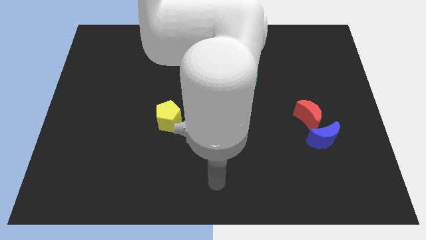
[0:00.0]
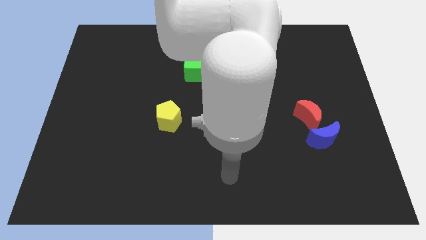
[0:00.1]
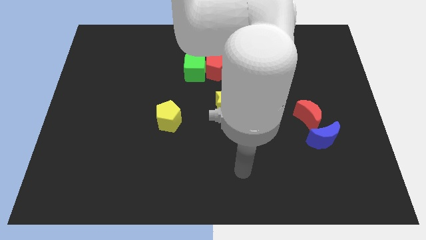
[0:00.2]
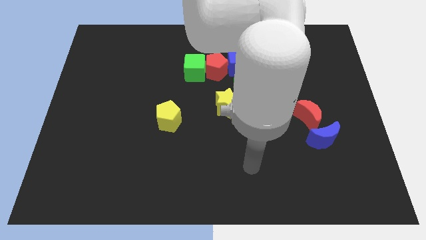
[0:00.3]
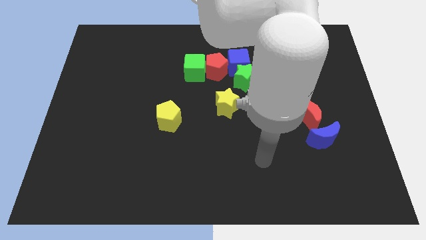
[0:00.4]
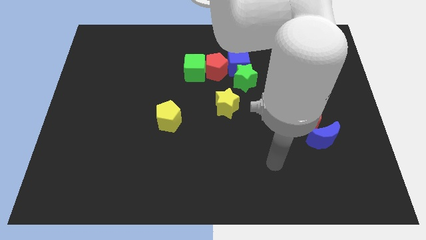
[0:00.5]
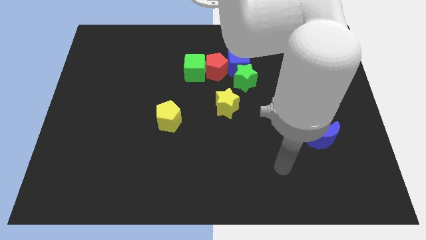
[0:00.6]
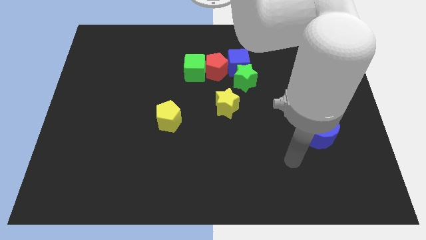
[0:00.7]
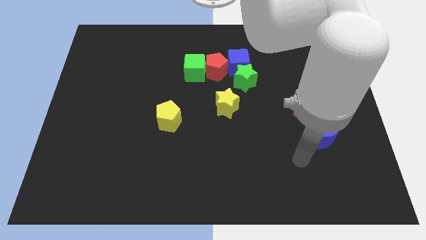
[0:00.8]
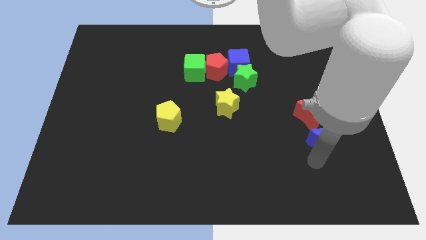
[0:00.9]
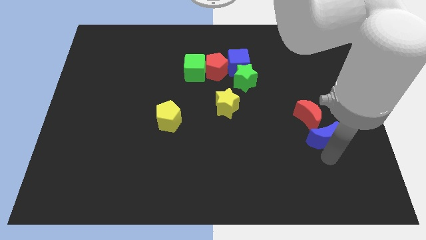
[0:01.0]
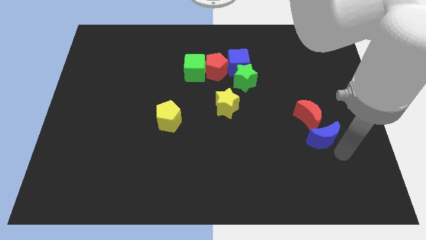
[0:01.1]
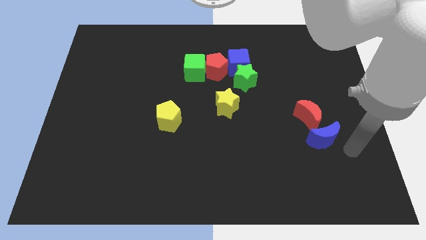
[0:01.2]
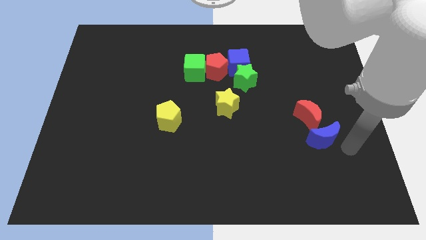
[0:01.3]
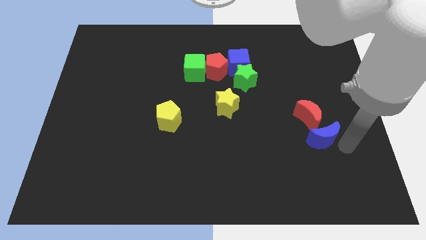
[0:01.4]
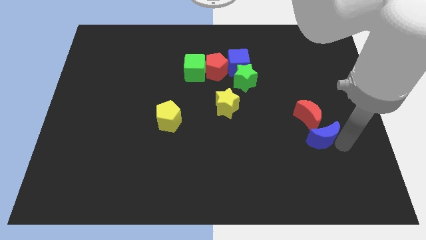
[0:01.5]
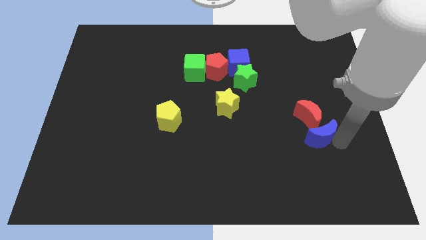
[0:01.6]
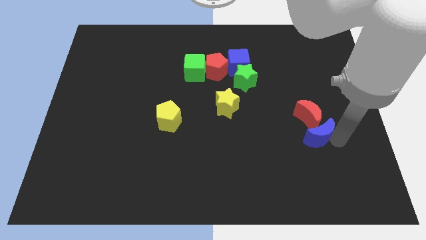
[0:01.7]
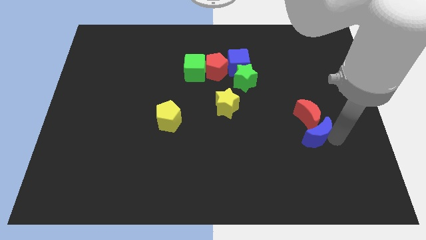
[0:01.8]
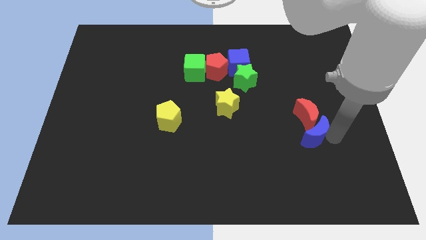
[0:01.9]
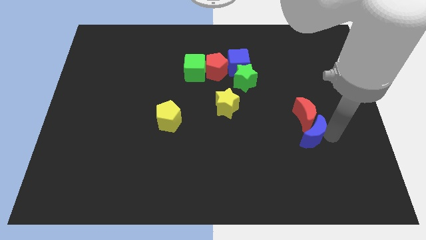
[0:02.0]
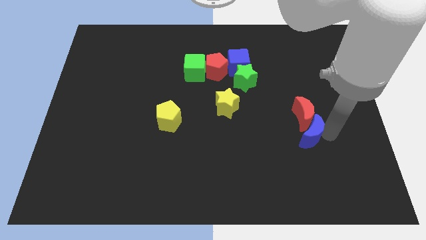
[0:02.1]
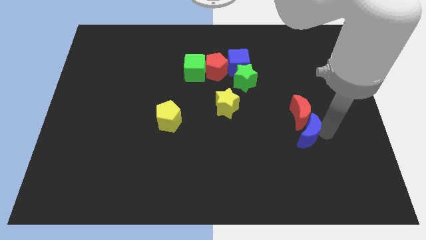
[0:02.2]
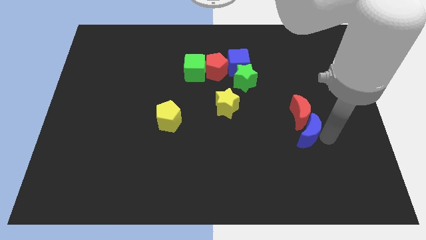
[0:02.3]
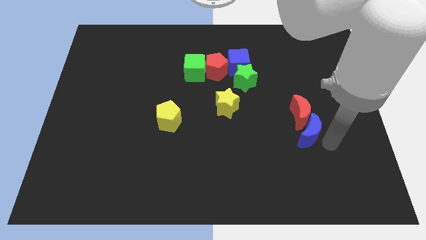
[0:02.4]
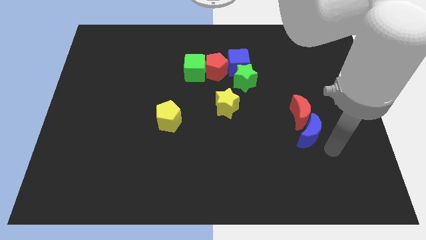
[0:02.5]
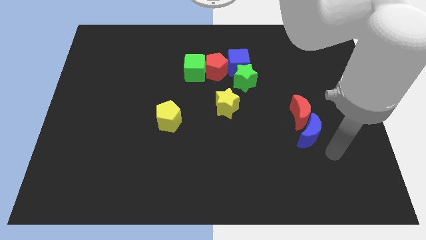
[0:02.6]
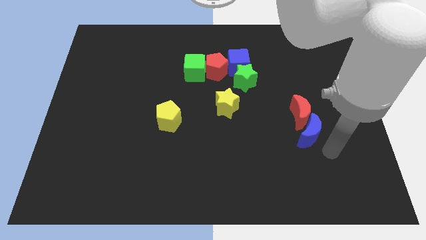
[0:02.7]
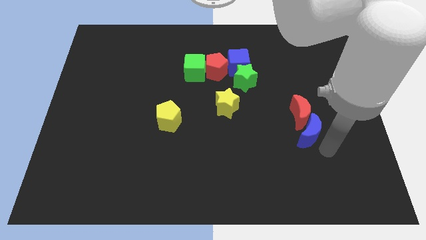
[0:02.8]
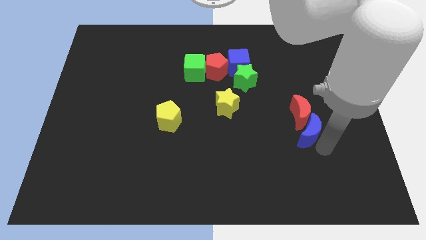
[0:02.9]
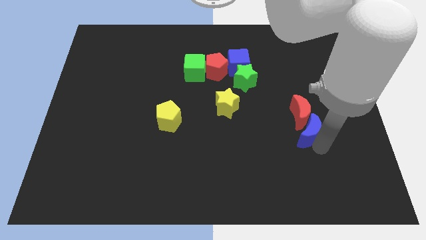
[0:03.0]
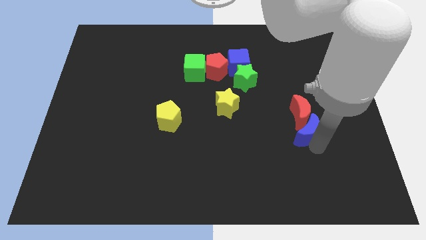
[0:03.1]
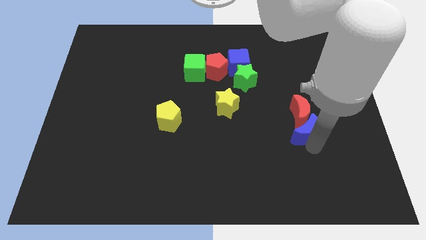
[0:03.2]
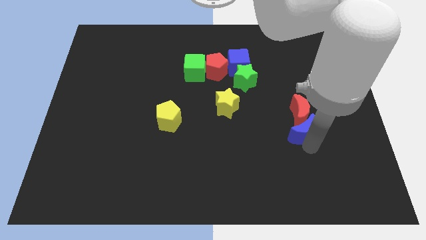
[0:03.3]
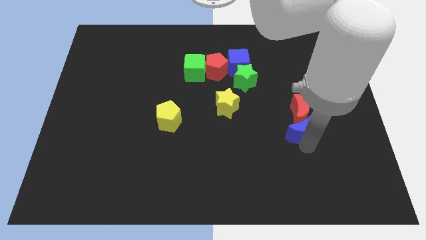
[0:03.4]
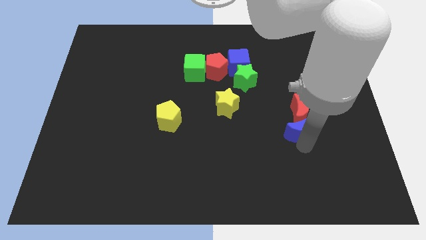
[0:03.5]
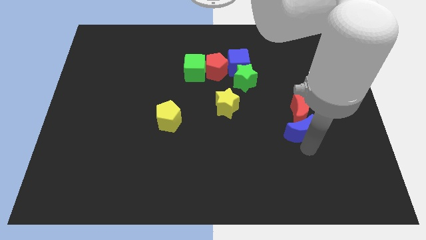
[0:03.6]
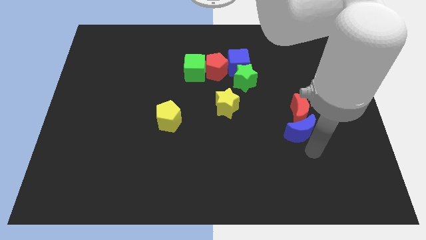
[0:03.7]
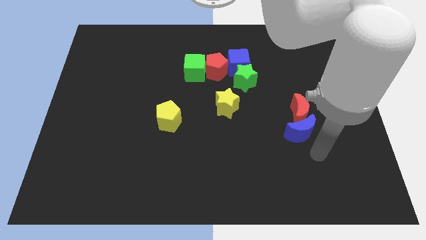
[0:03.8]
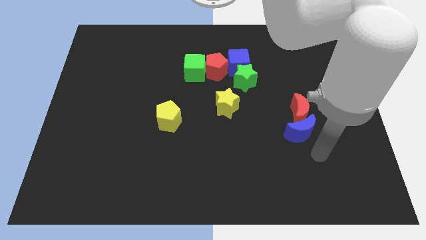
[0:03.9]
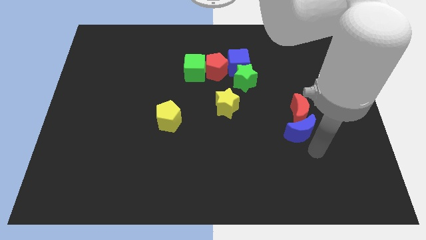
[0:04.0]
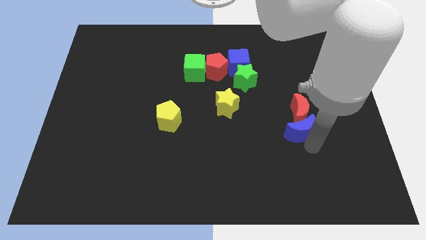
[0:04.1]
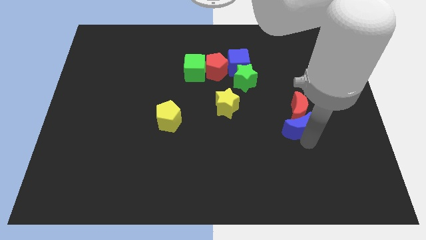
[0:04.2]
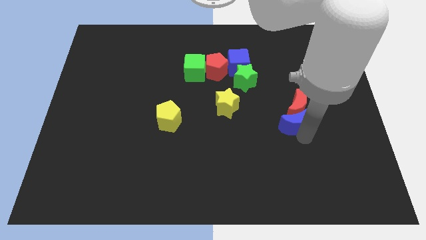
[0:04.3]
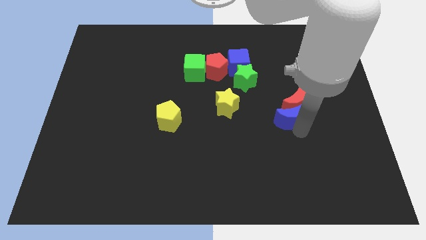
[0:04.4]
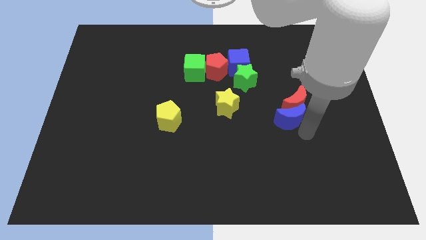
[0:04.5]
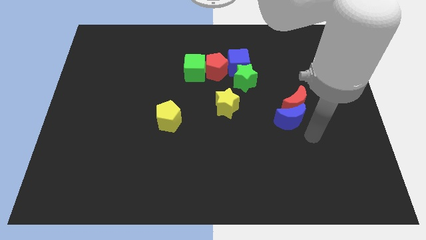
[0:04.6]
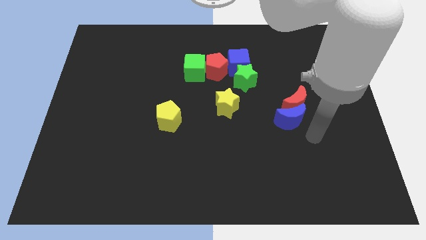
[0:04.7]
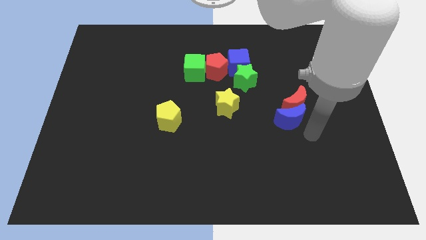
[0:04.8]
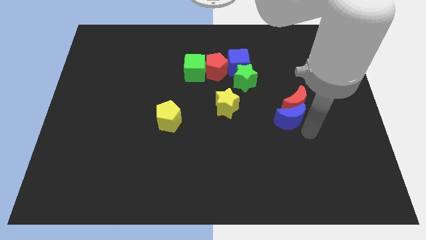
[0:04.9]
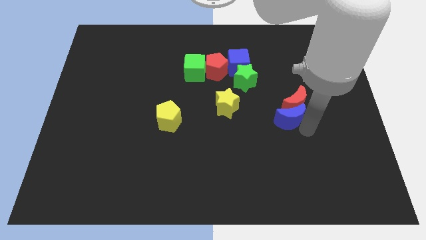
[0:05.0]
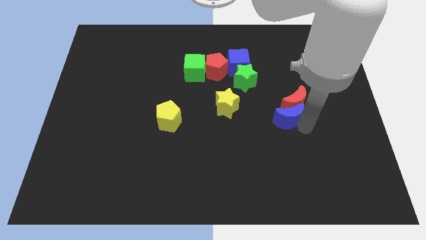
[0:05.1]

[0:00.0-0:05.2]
move the blue moon right of the yellow star

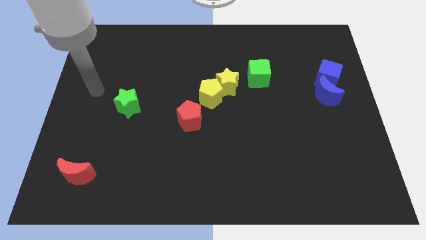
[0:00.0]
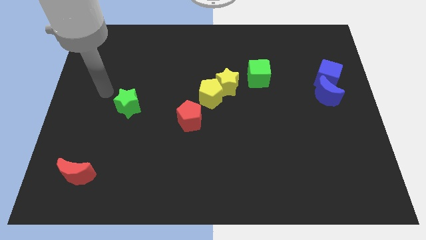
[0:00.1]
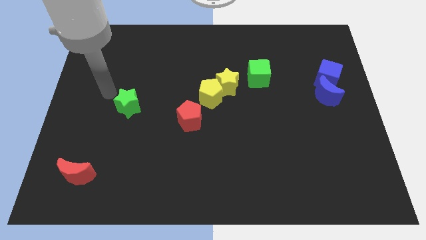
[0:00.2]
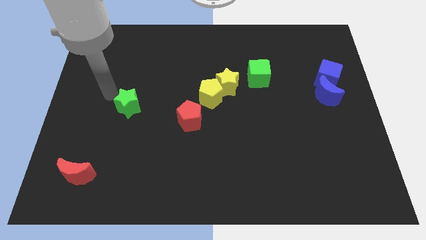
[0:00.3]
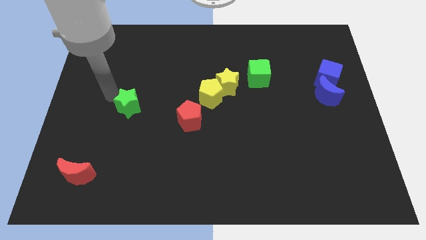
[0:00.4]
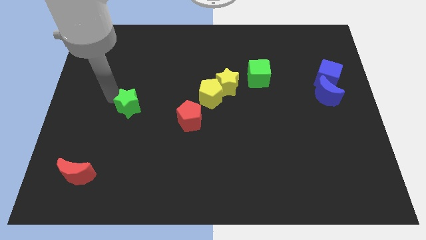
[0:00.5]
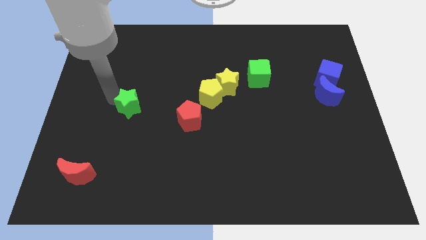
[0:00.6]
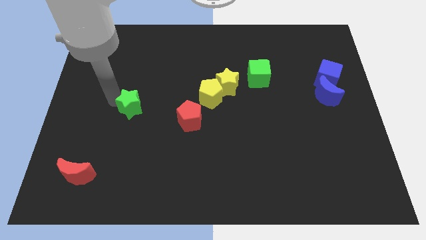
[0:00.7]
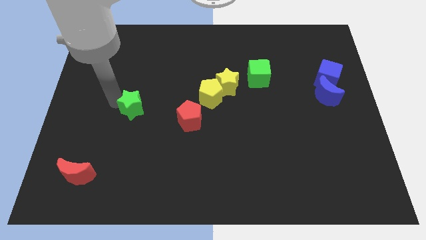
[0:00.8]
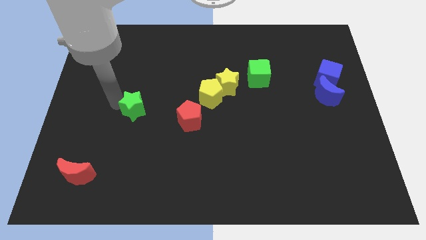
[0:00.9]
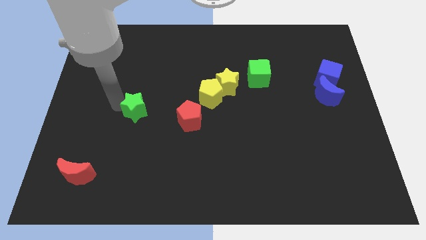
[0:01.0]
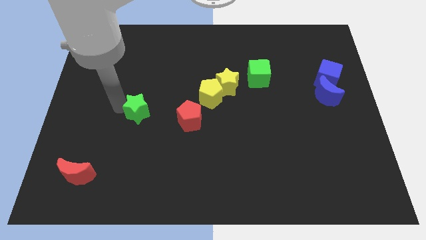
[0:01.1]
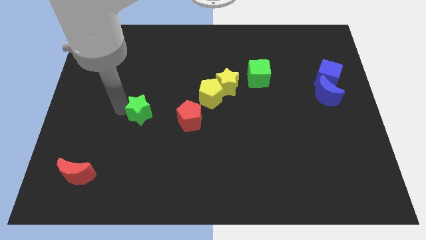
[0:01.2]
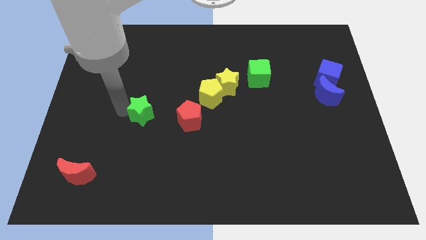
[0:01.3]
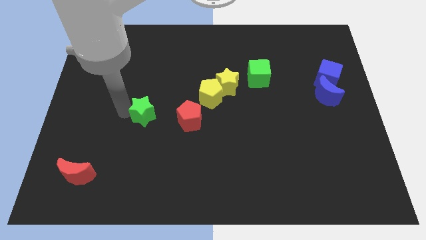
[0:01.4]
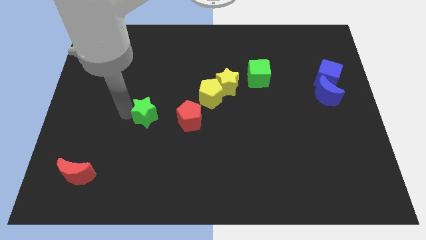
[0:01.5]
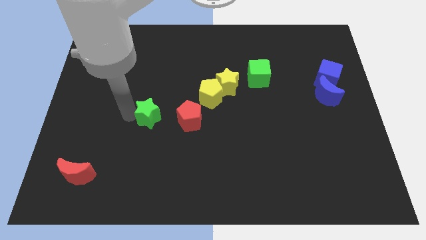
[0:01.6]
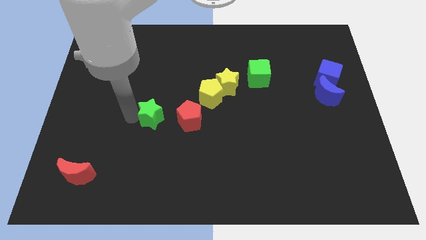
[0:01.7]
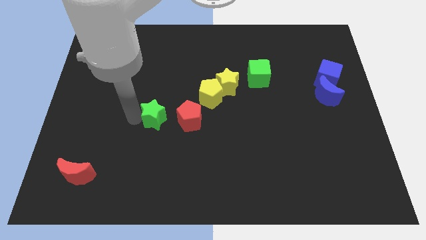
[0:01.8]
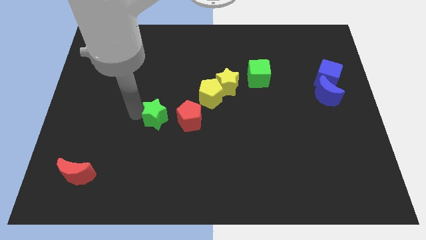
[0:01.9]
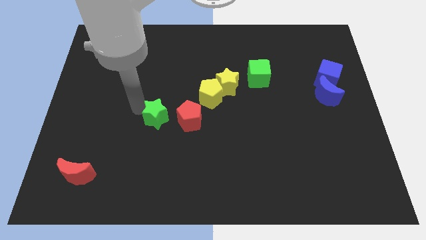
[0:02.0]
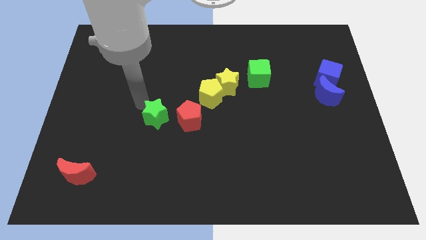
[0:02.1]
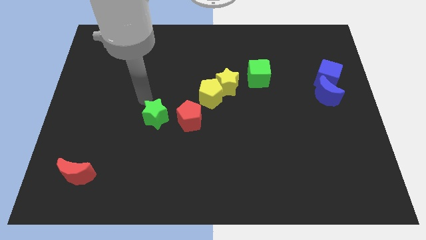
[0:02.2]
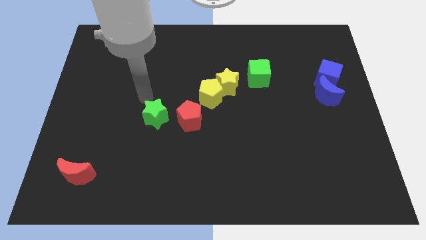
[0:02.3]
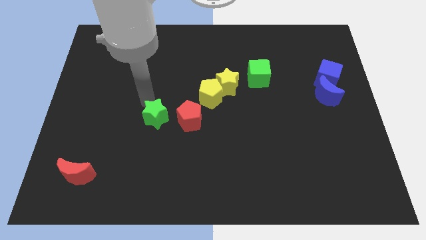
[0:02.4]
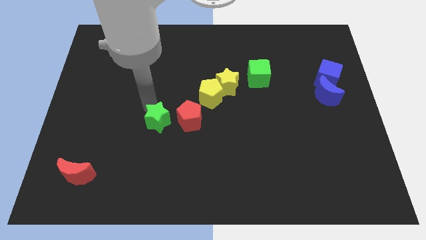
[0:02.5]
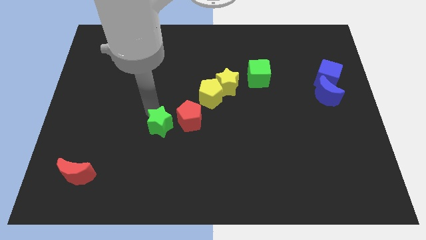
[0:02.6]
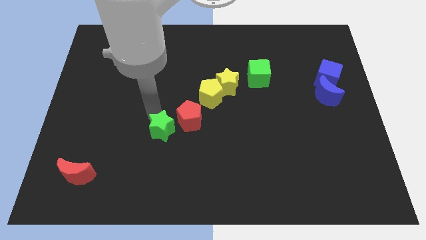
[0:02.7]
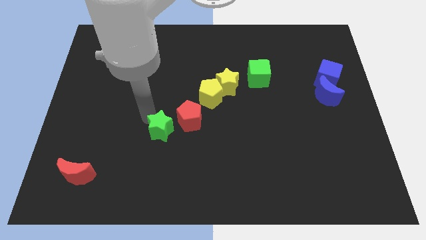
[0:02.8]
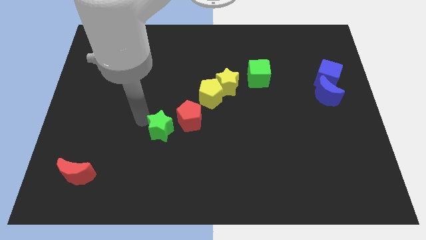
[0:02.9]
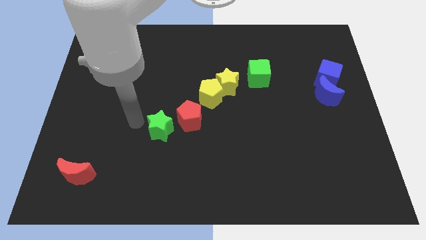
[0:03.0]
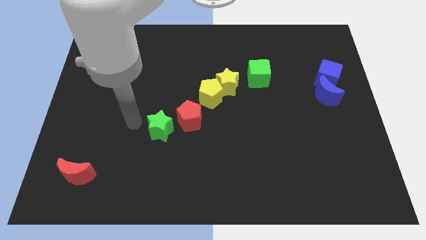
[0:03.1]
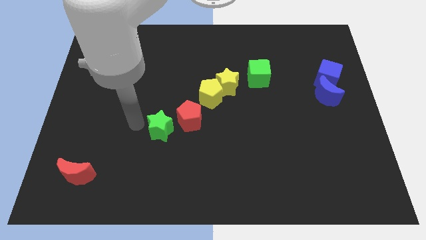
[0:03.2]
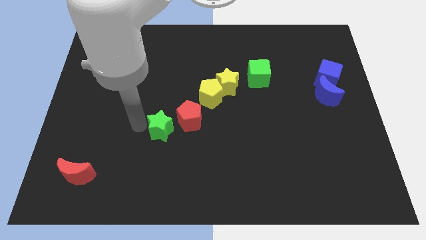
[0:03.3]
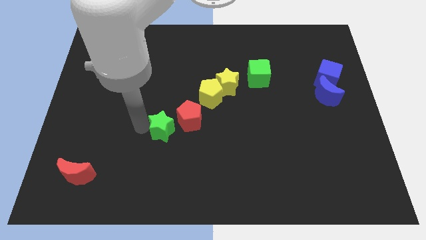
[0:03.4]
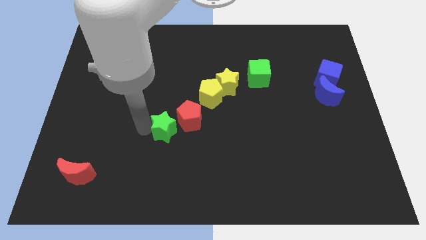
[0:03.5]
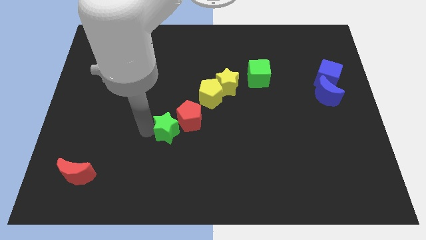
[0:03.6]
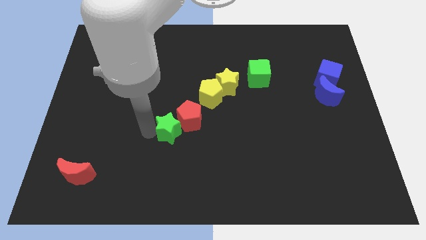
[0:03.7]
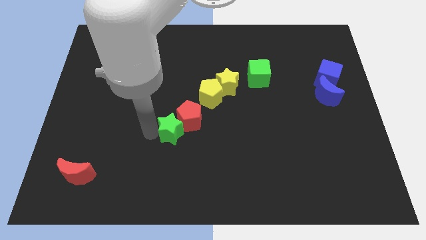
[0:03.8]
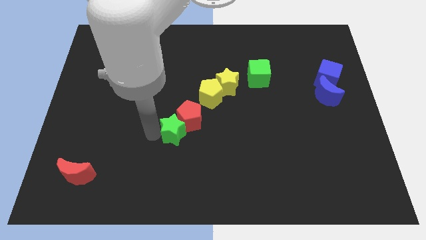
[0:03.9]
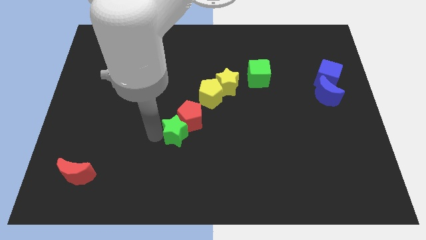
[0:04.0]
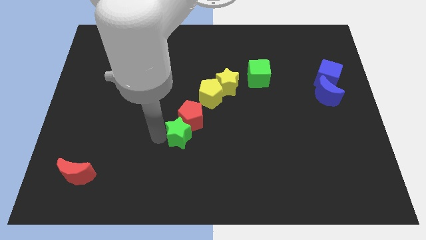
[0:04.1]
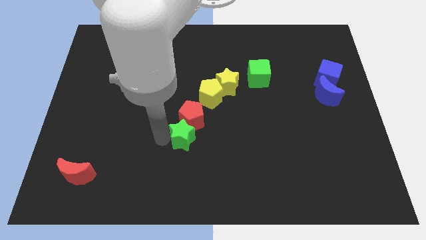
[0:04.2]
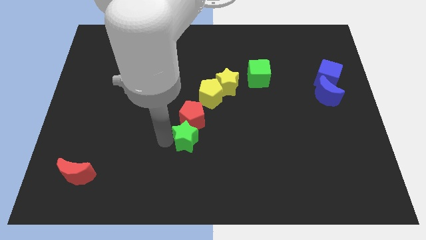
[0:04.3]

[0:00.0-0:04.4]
put the green star to the bottom right of the red pentagon
